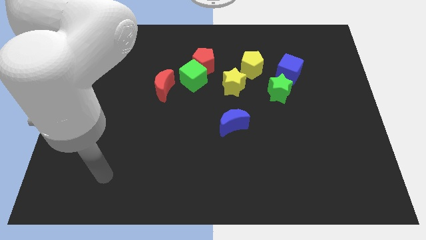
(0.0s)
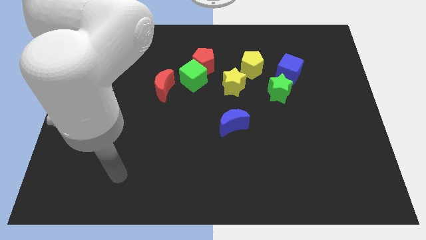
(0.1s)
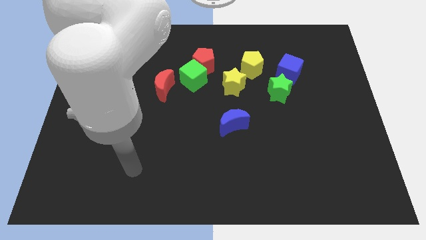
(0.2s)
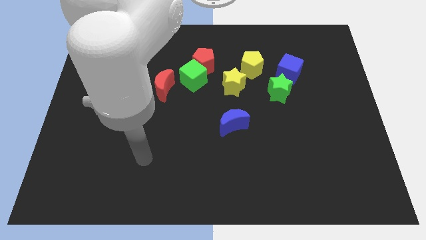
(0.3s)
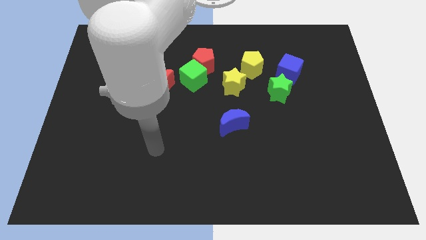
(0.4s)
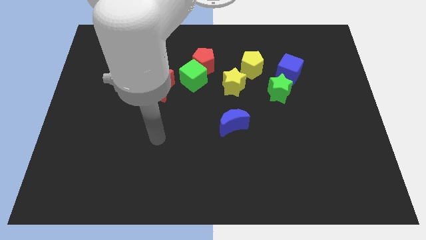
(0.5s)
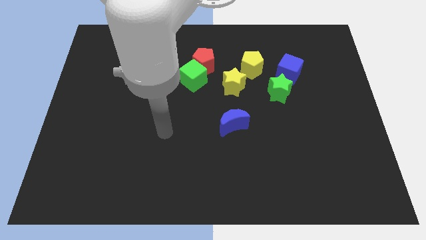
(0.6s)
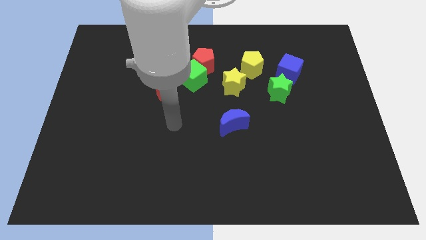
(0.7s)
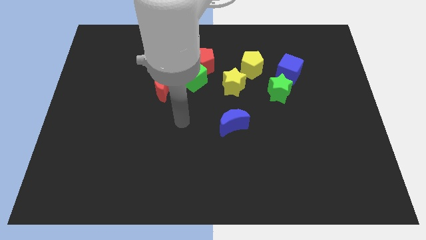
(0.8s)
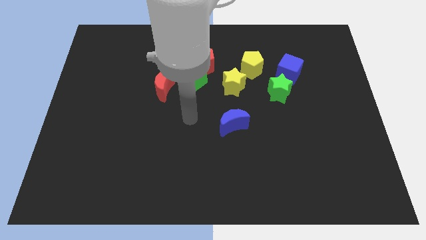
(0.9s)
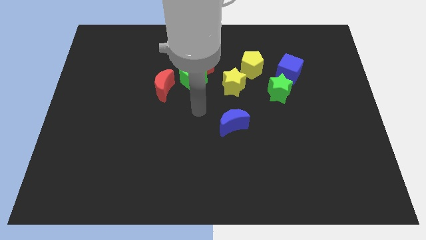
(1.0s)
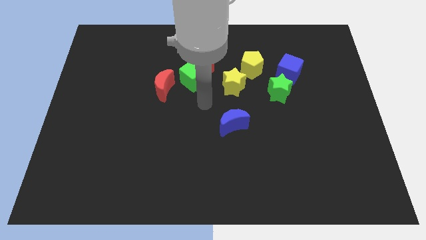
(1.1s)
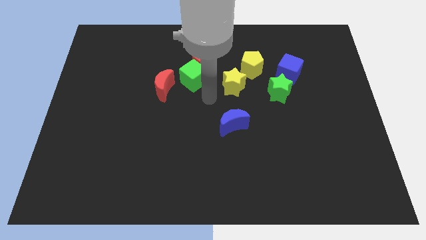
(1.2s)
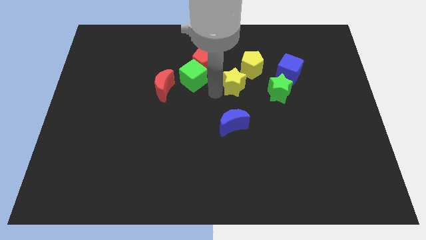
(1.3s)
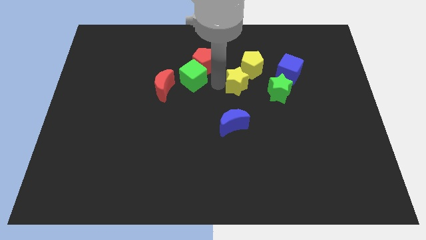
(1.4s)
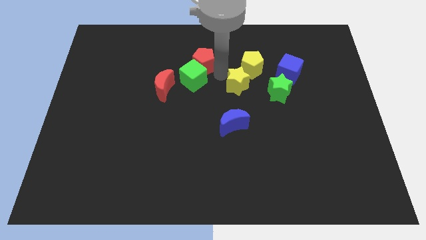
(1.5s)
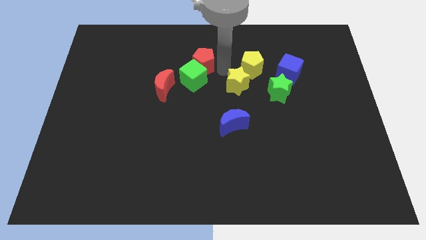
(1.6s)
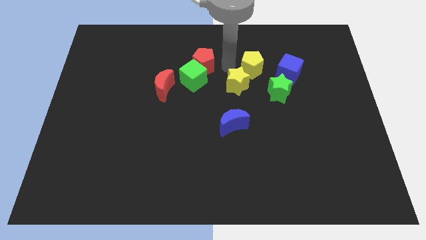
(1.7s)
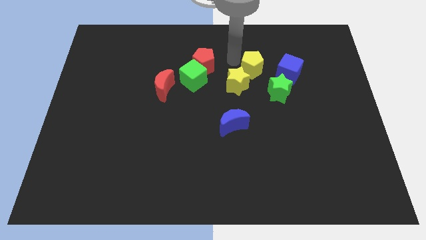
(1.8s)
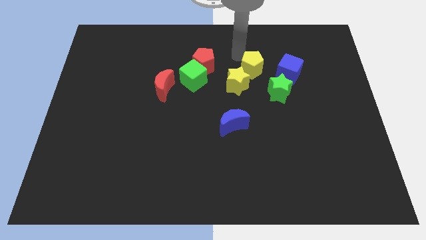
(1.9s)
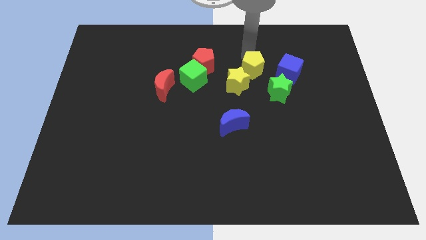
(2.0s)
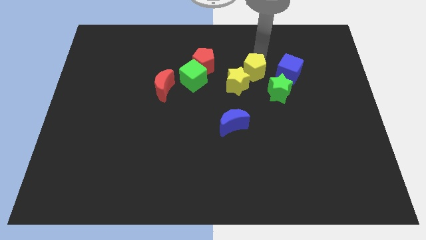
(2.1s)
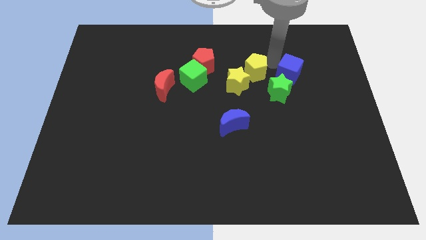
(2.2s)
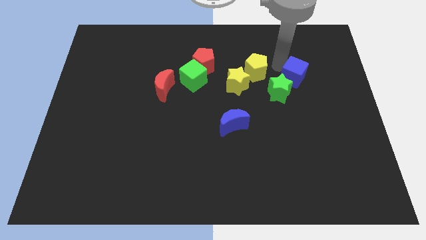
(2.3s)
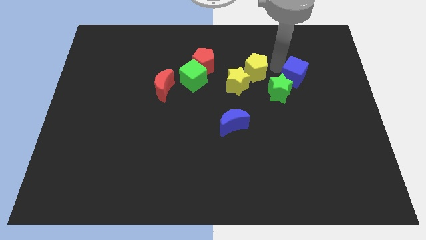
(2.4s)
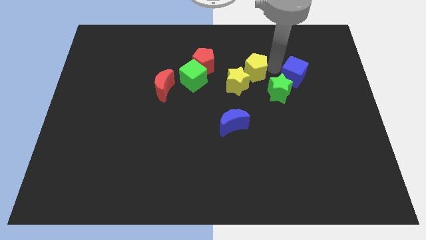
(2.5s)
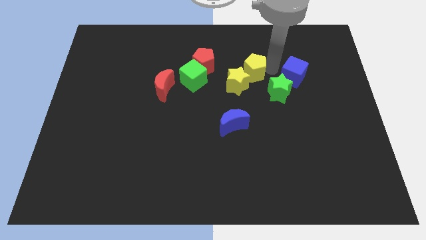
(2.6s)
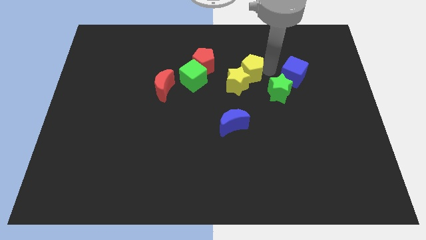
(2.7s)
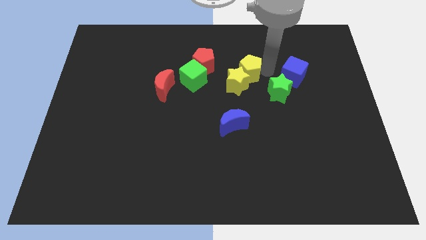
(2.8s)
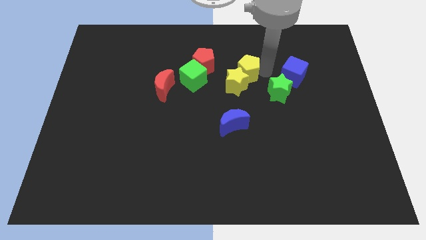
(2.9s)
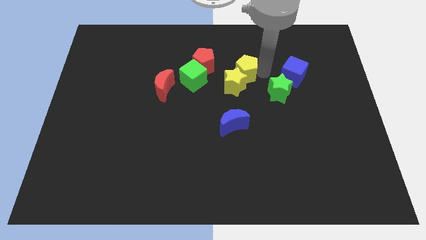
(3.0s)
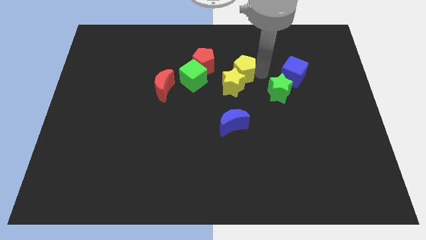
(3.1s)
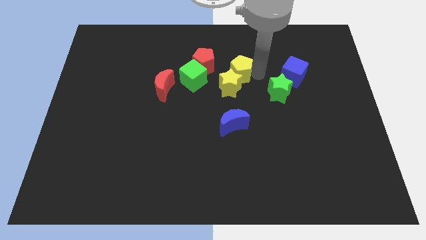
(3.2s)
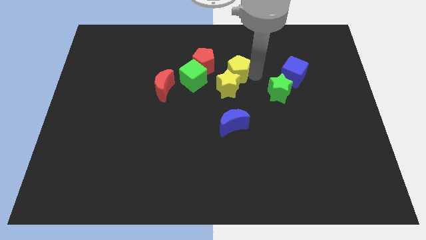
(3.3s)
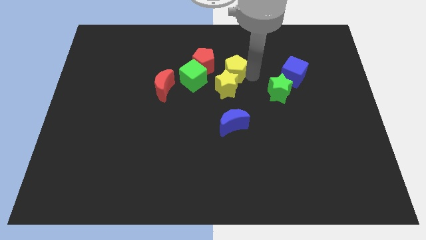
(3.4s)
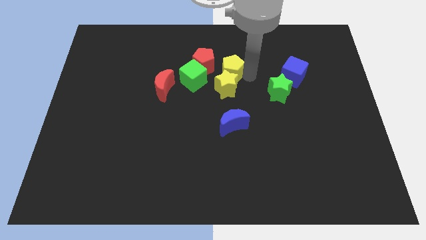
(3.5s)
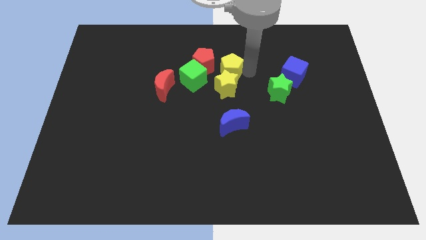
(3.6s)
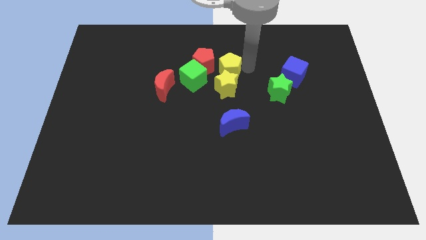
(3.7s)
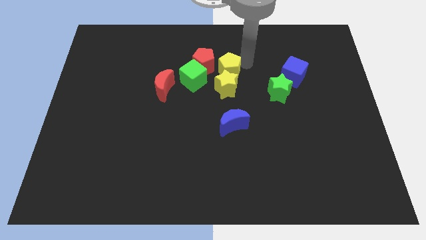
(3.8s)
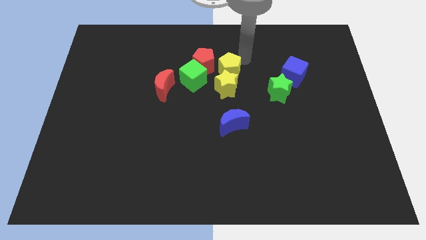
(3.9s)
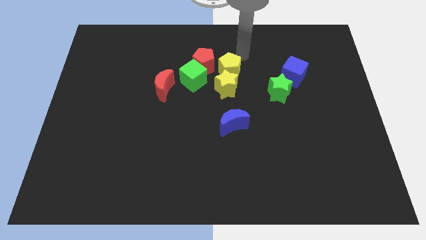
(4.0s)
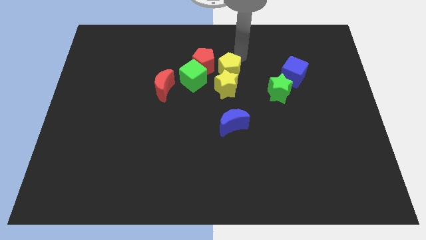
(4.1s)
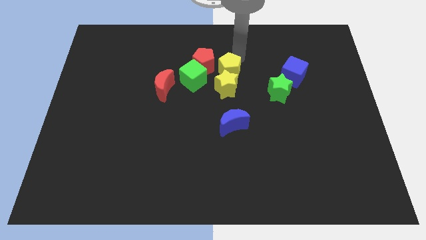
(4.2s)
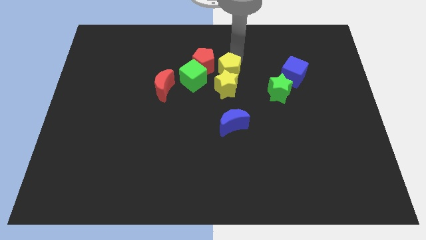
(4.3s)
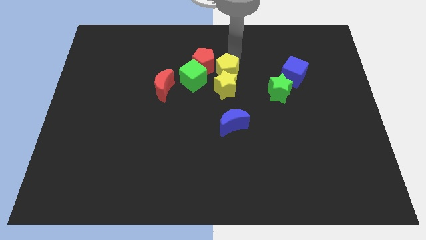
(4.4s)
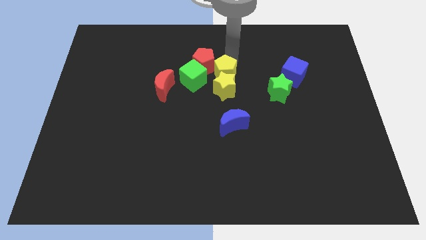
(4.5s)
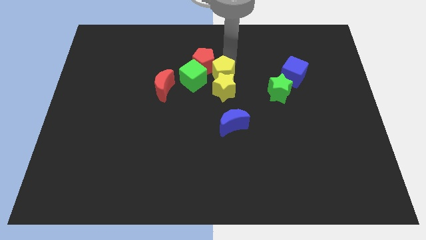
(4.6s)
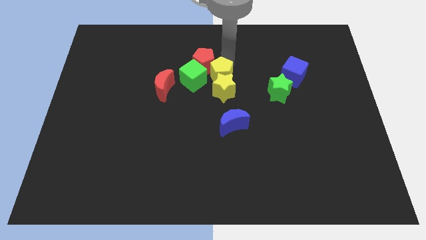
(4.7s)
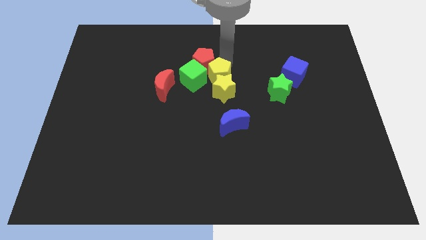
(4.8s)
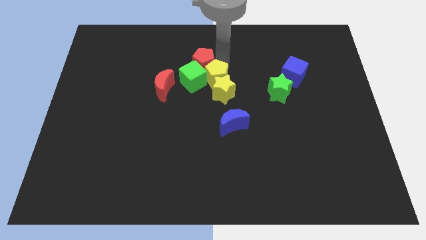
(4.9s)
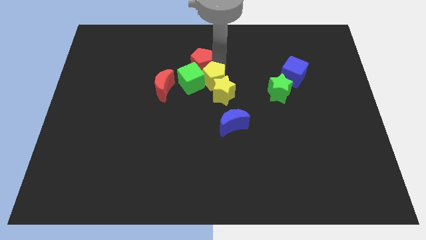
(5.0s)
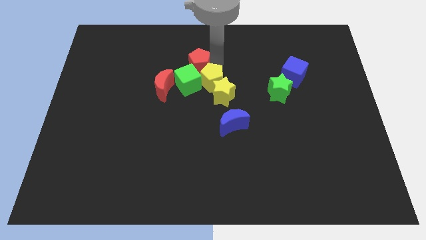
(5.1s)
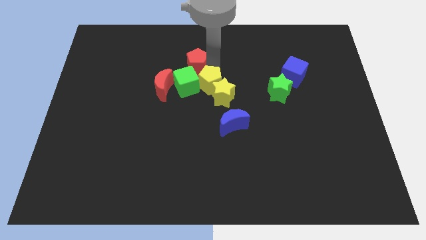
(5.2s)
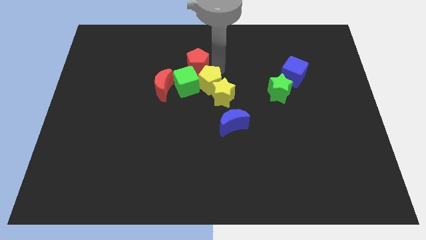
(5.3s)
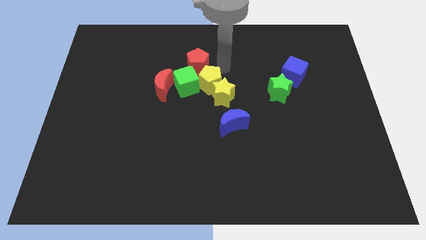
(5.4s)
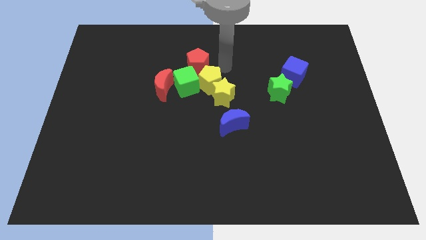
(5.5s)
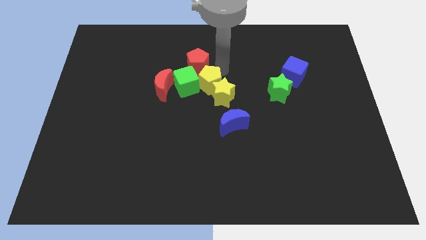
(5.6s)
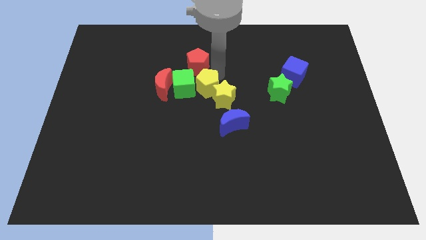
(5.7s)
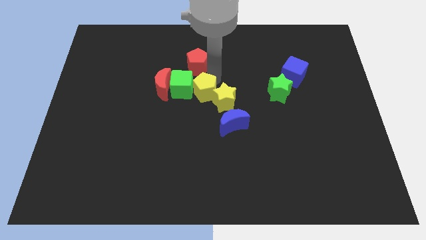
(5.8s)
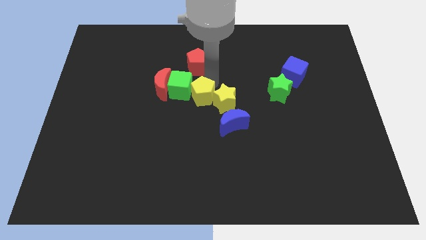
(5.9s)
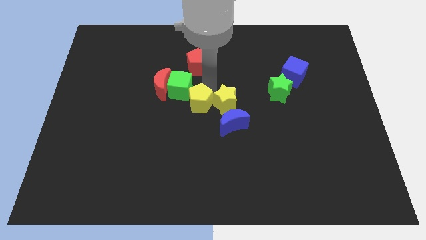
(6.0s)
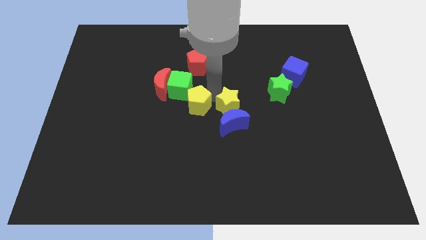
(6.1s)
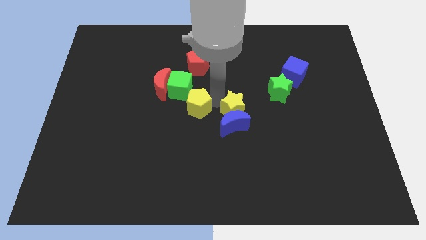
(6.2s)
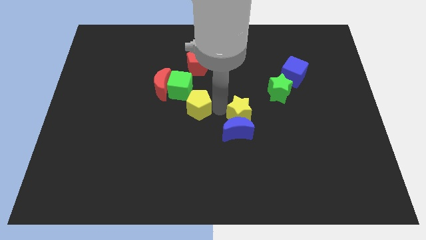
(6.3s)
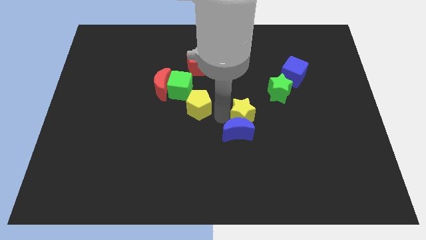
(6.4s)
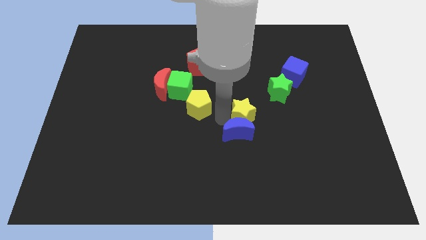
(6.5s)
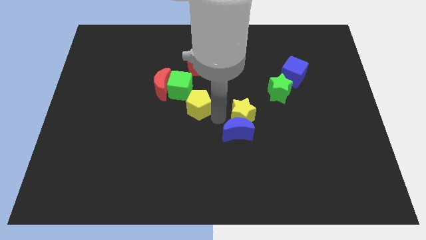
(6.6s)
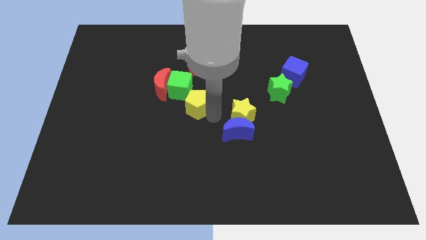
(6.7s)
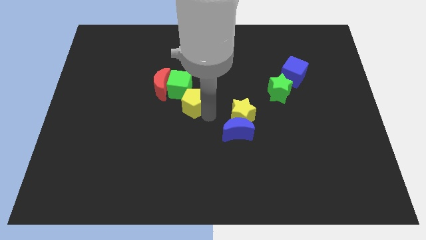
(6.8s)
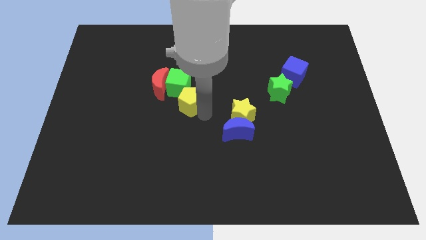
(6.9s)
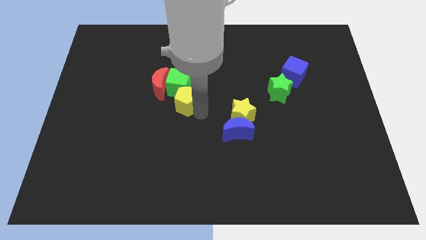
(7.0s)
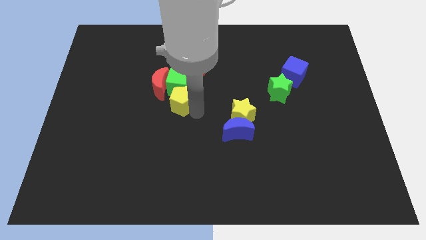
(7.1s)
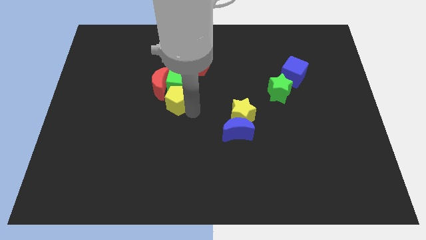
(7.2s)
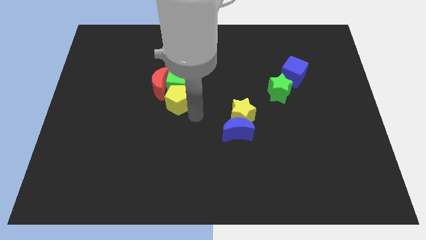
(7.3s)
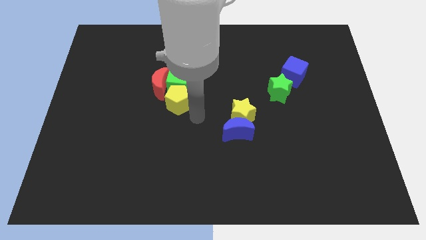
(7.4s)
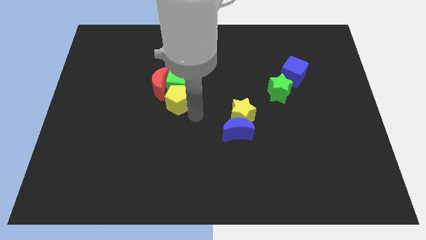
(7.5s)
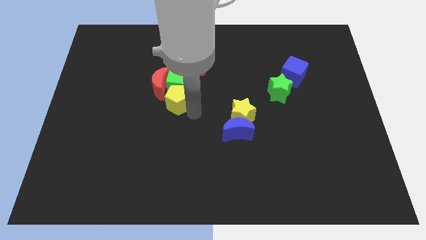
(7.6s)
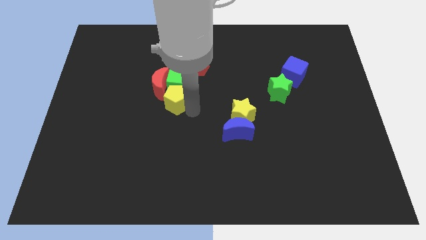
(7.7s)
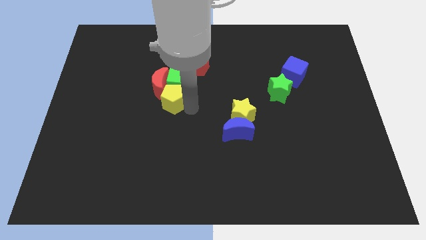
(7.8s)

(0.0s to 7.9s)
push the yellow pentagon to the red moon
